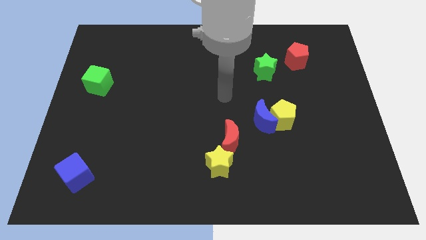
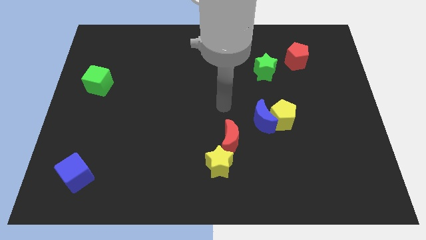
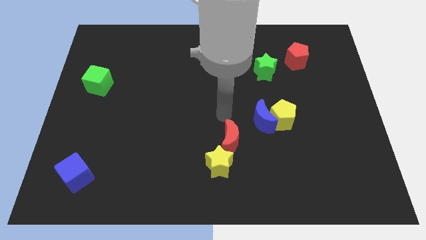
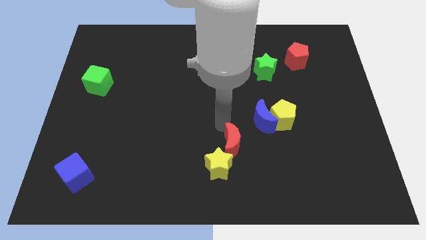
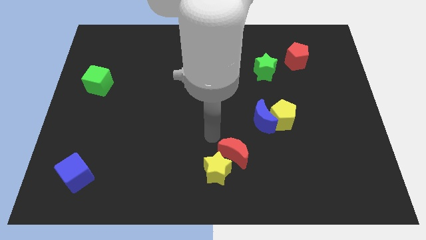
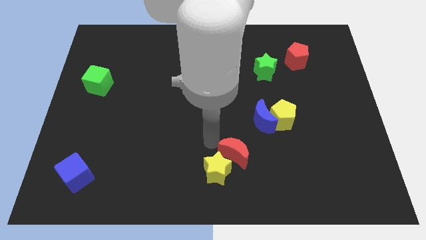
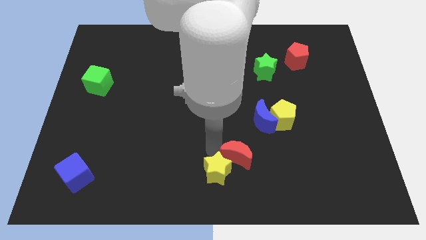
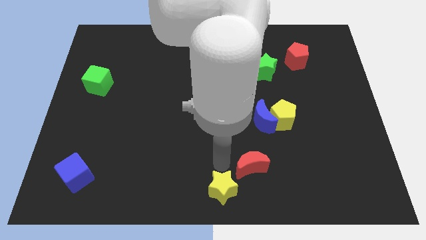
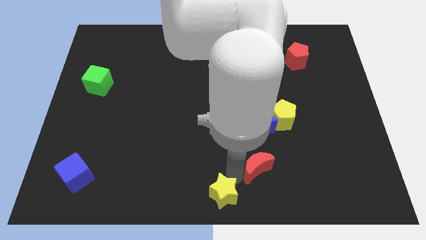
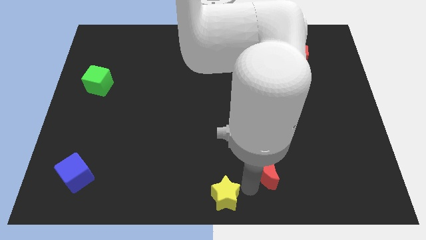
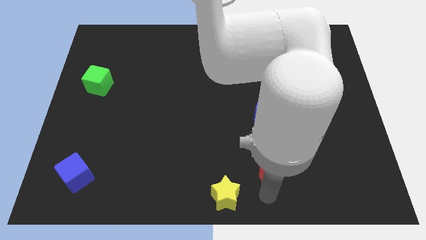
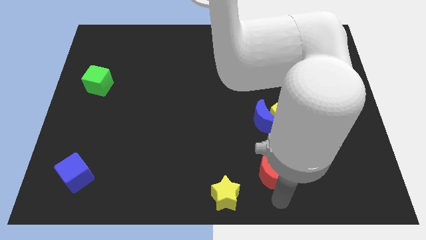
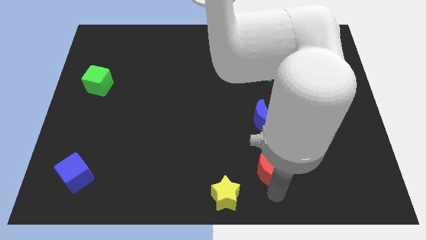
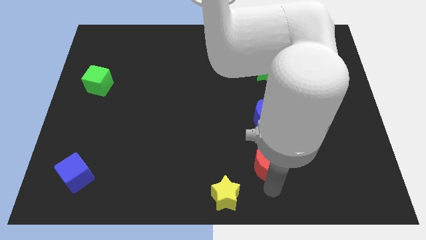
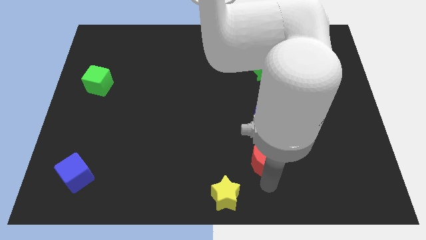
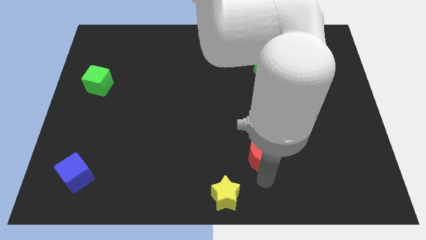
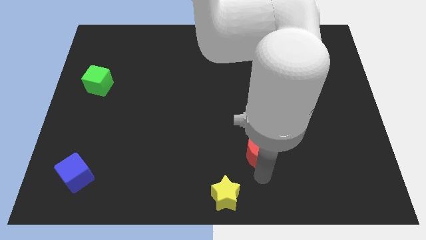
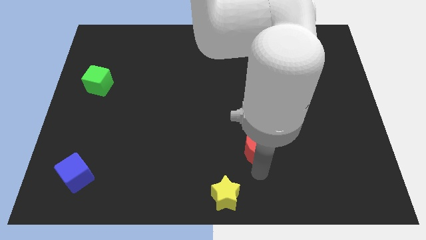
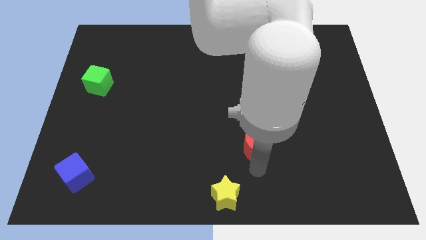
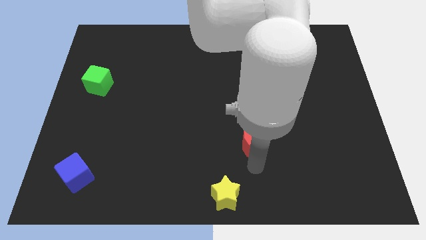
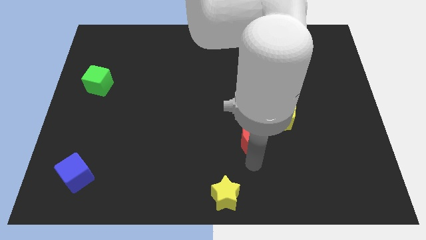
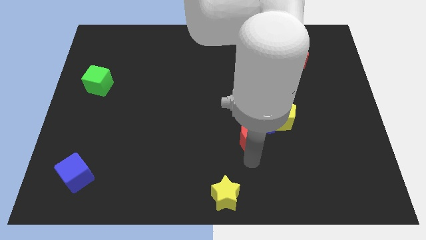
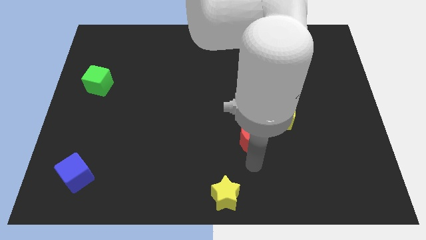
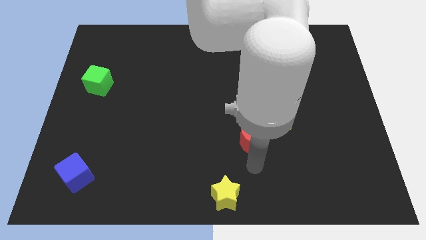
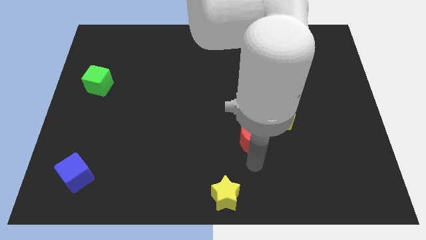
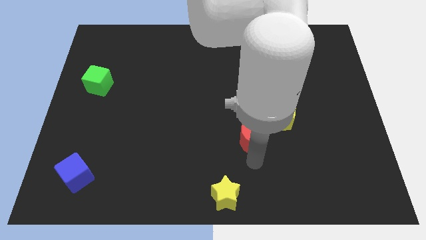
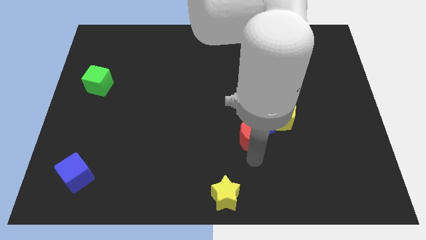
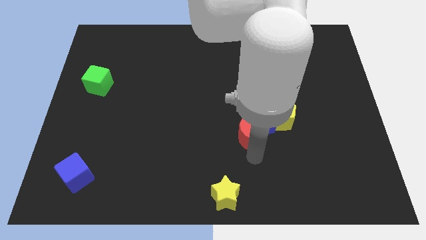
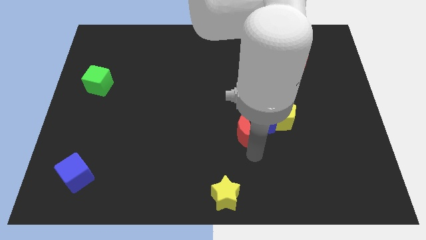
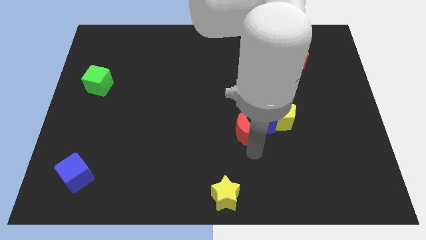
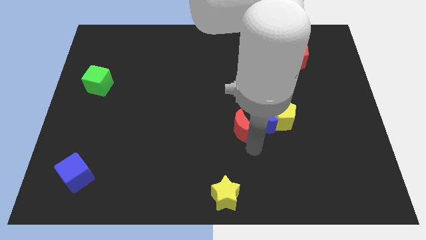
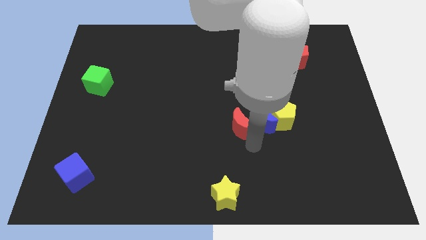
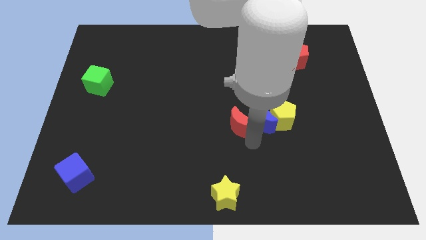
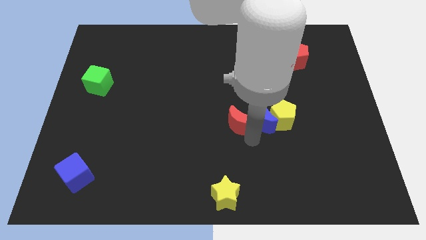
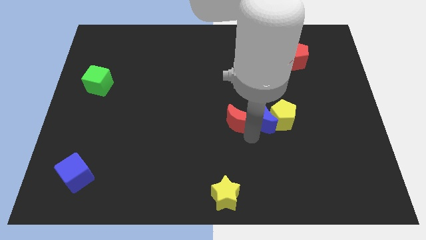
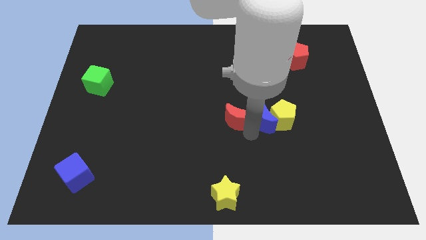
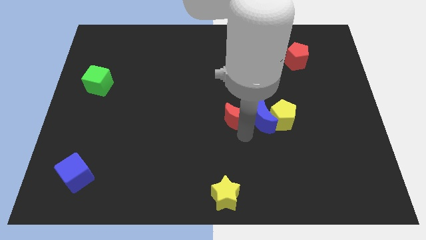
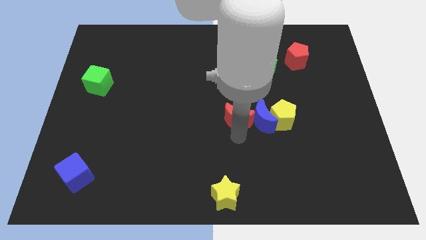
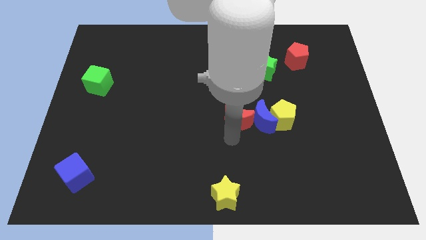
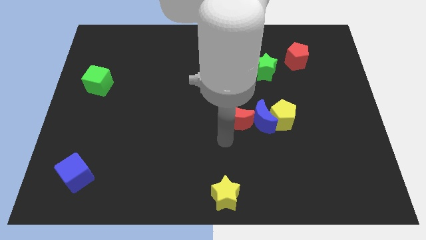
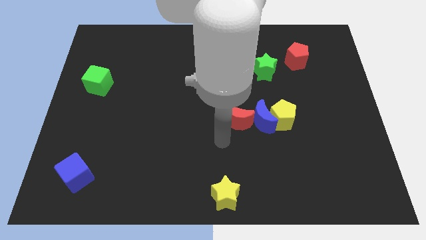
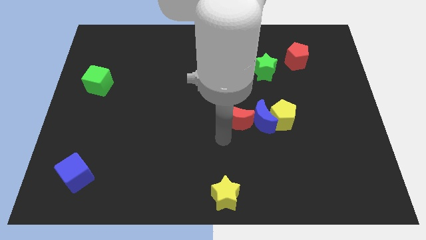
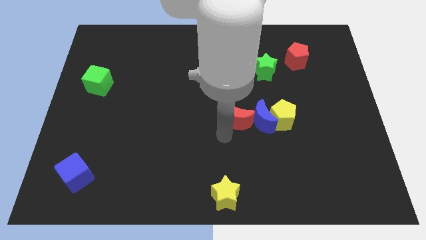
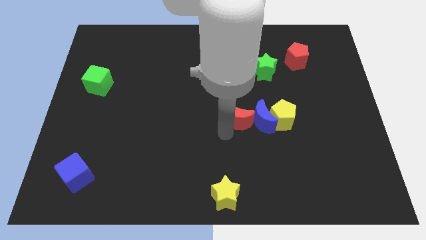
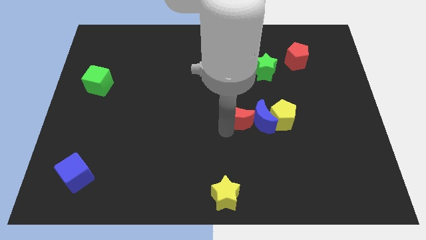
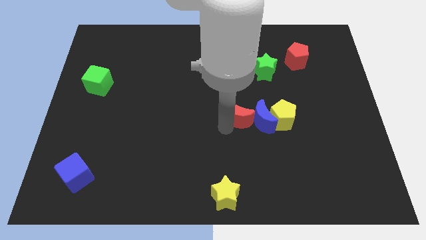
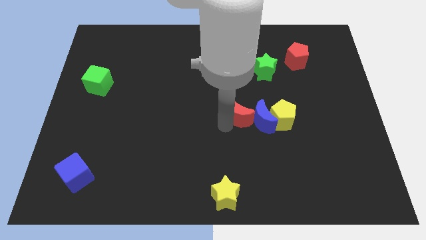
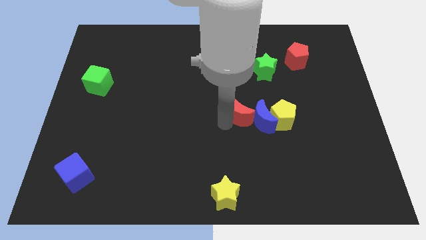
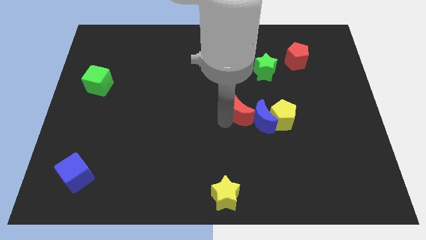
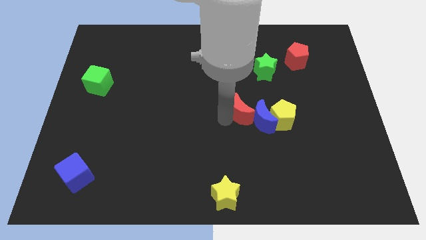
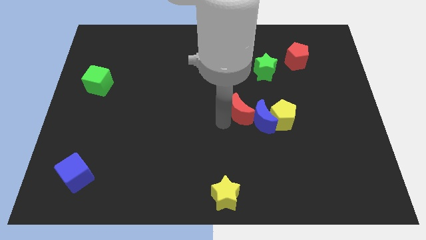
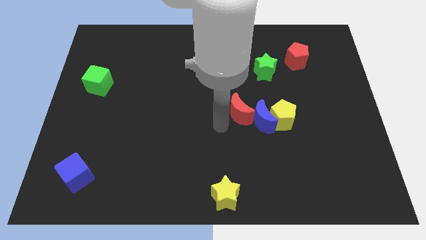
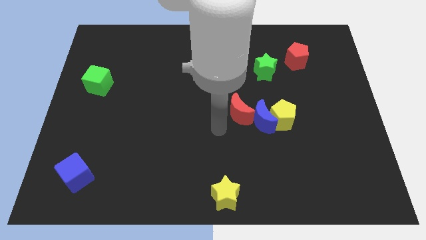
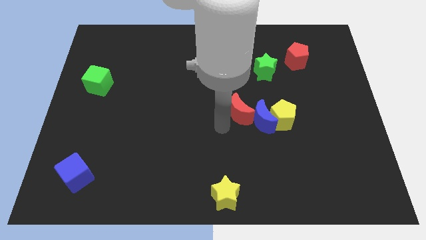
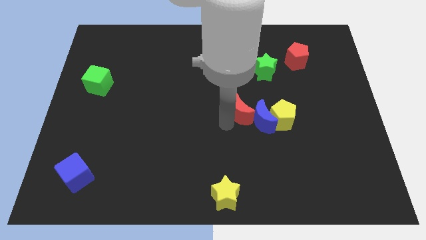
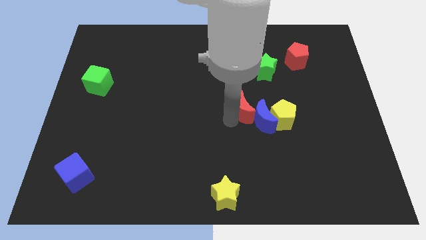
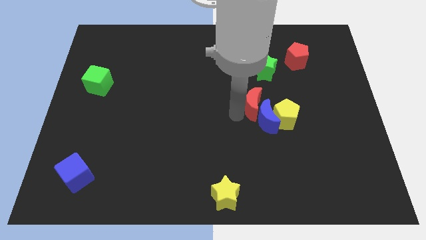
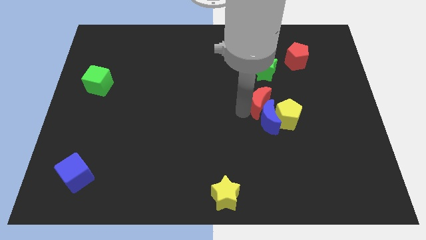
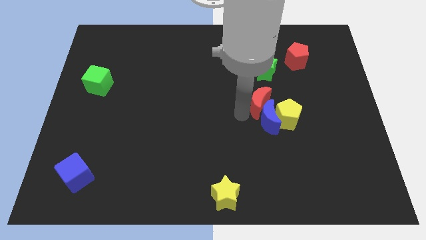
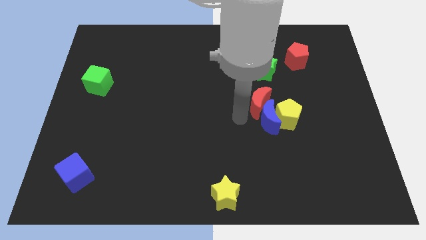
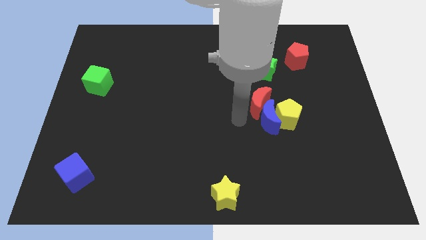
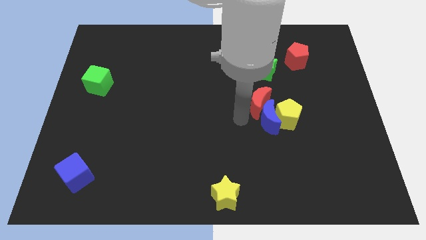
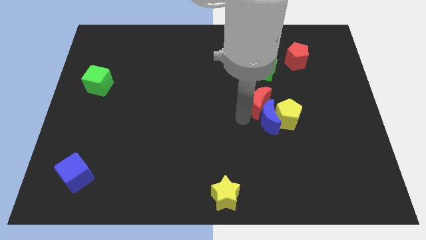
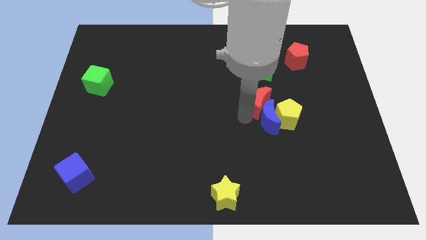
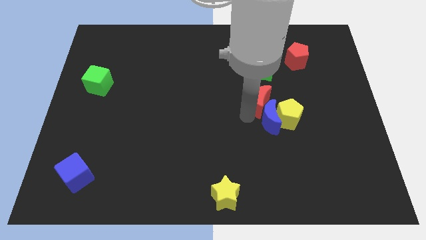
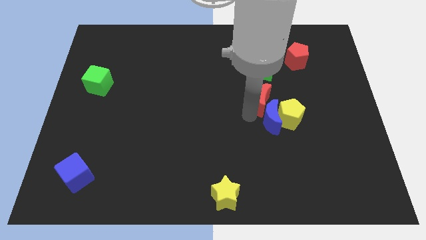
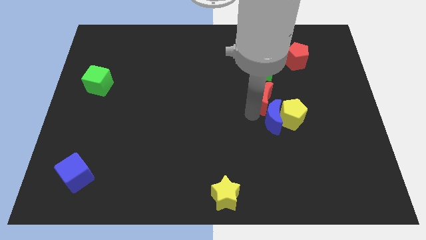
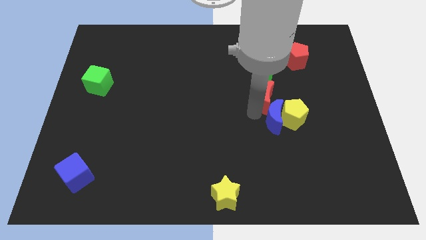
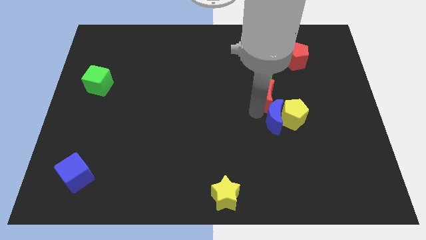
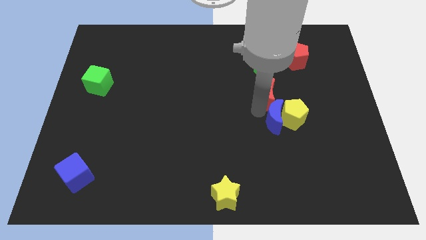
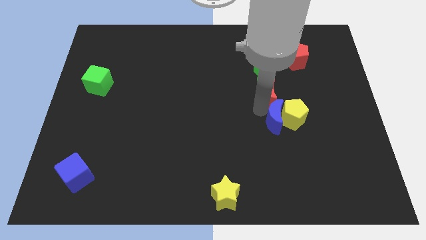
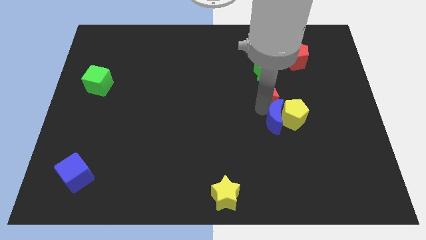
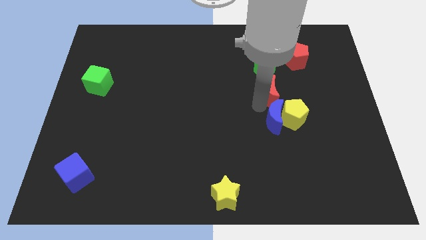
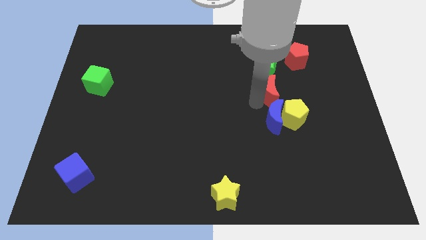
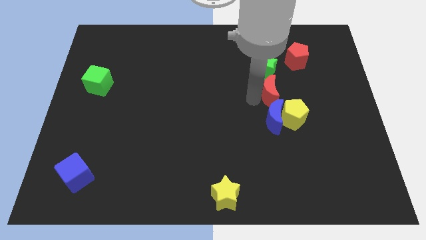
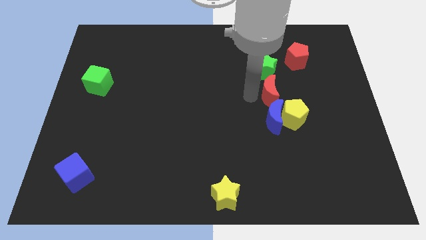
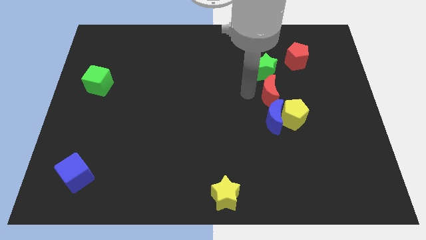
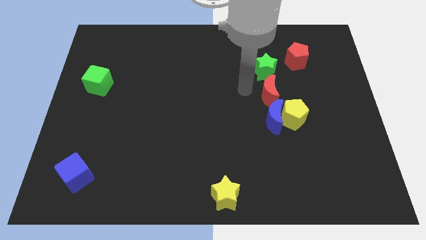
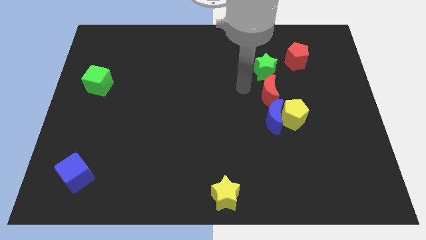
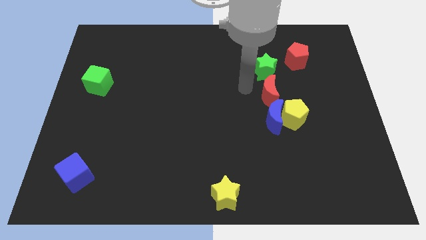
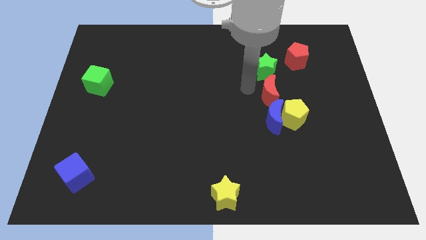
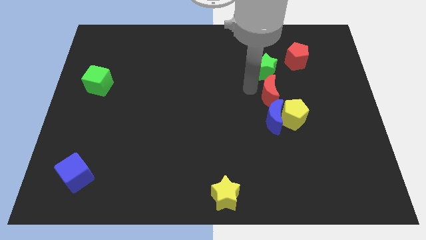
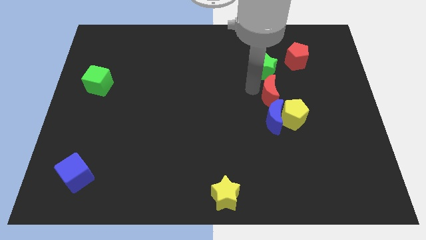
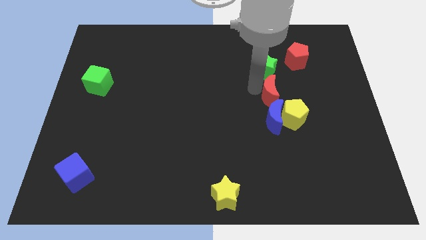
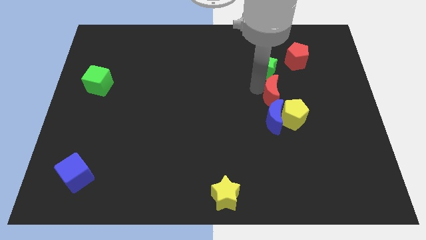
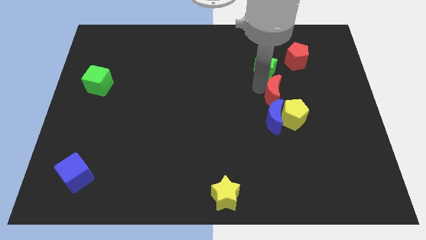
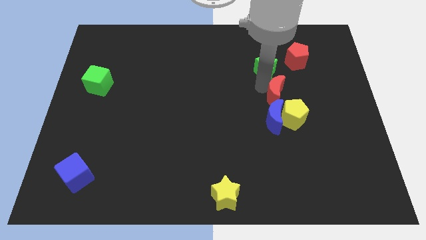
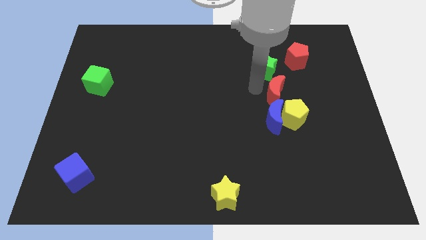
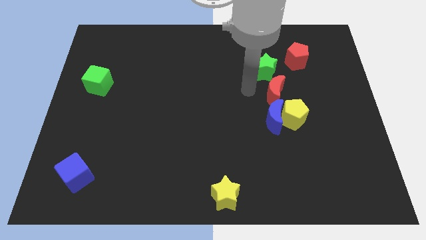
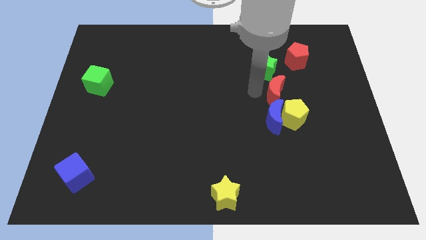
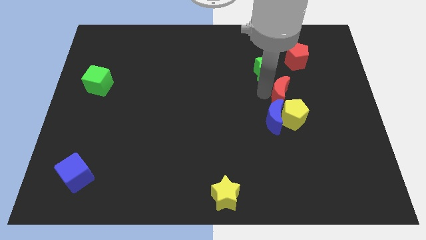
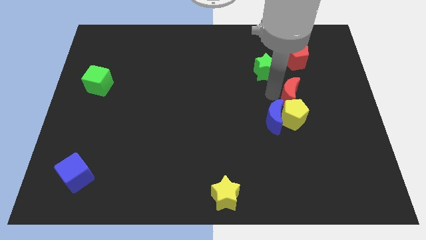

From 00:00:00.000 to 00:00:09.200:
put the red moon to the top right of the yellow pentagon
